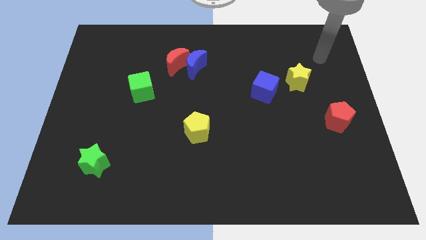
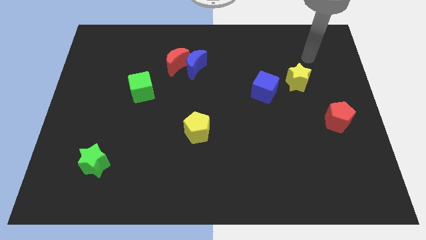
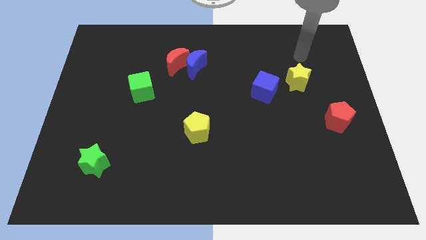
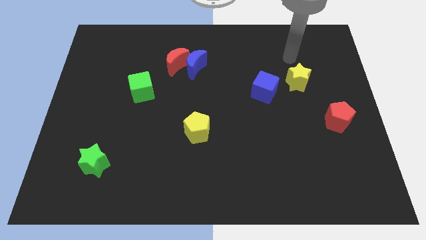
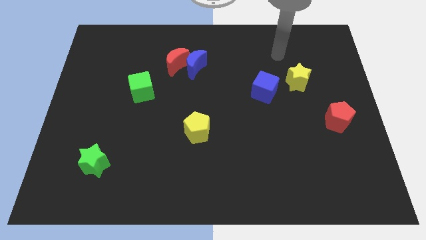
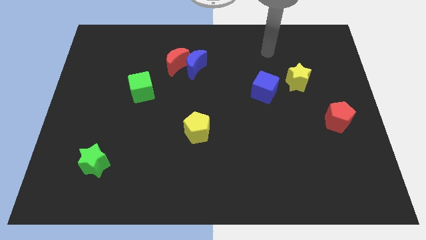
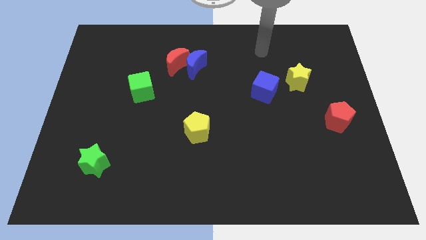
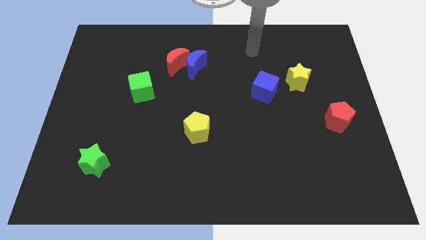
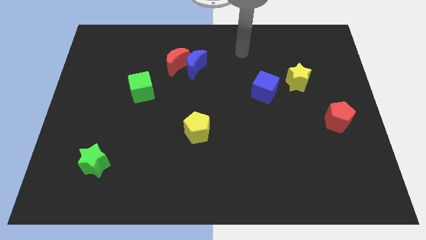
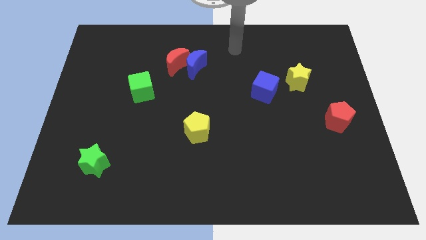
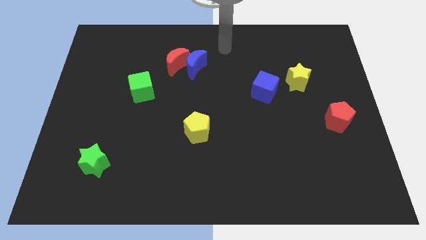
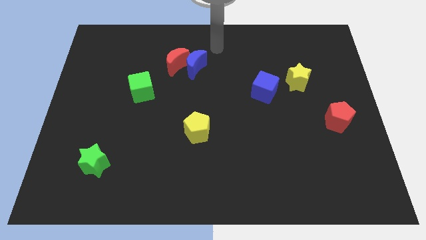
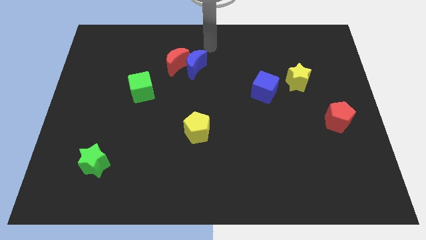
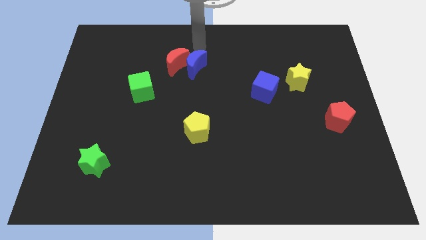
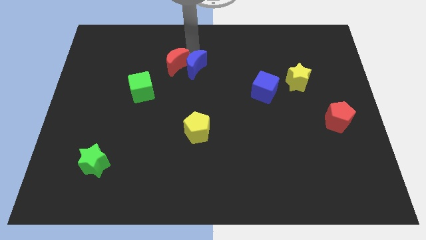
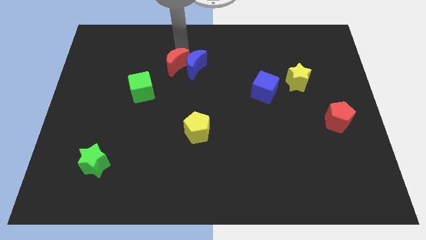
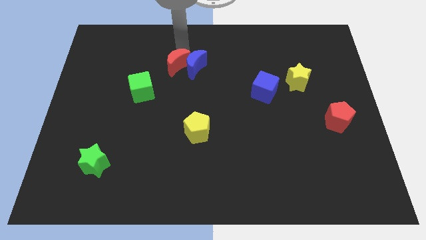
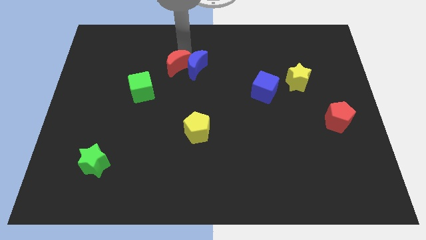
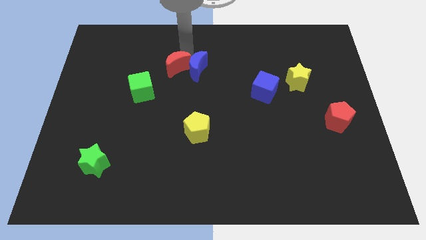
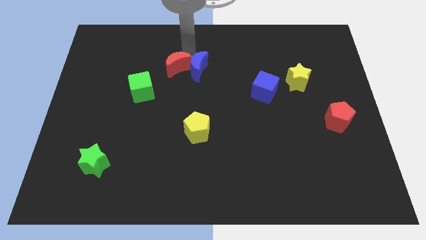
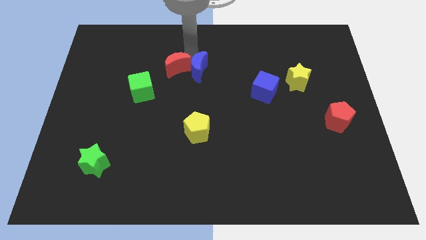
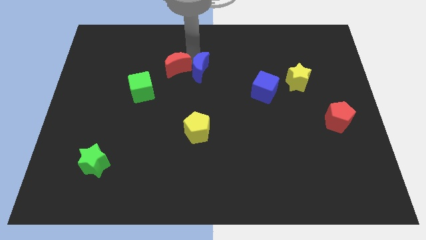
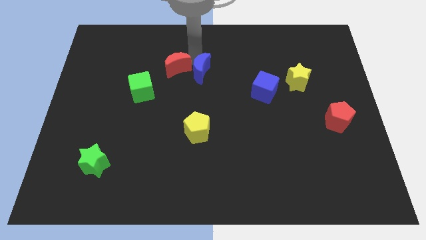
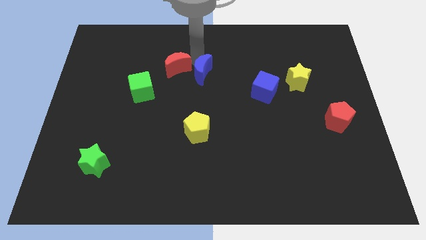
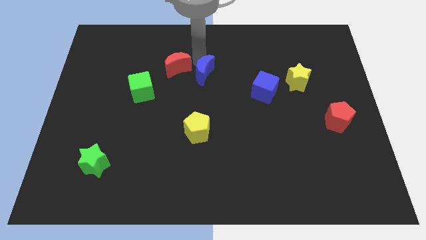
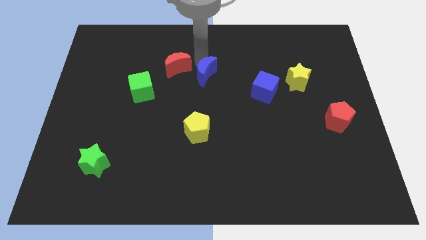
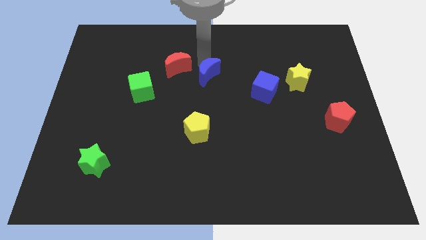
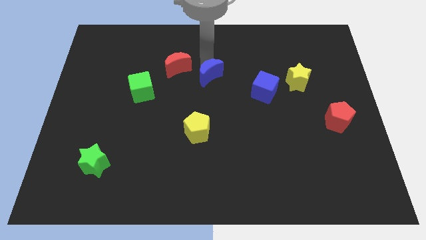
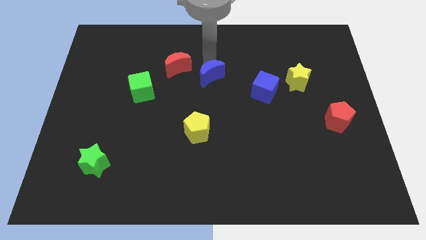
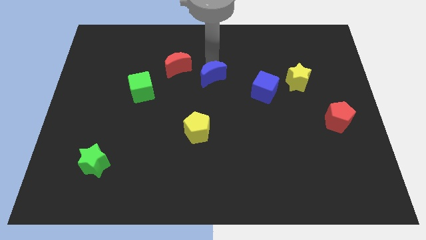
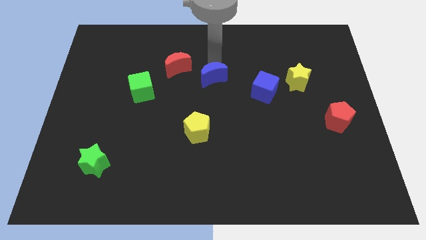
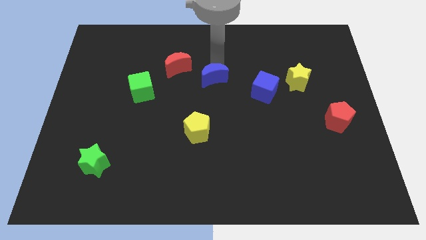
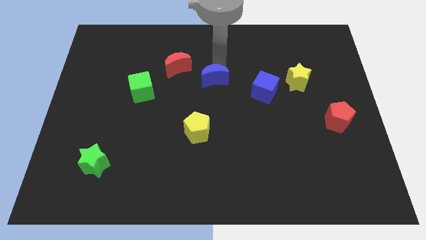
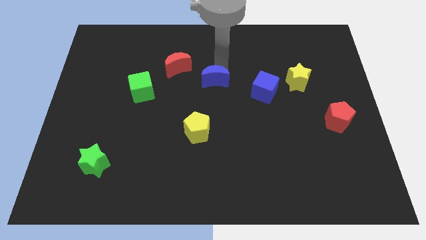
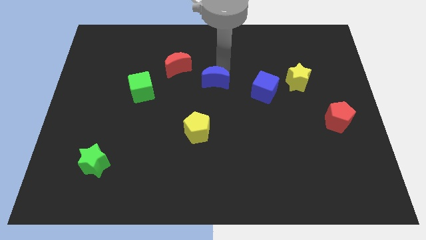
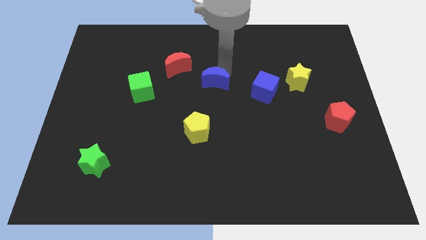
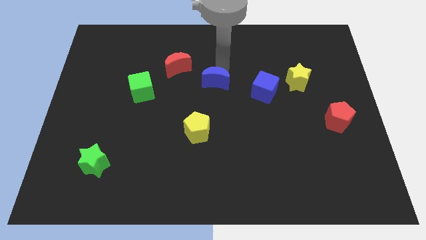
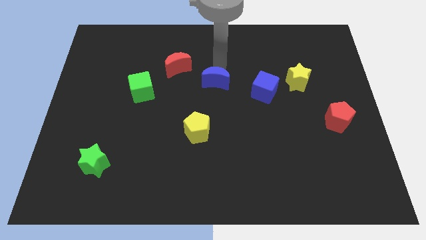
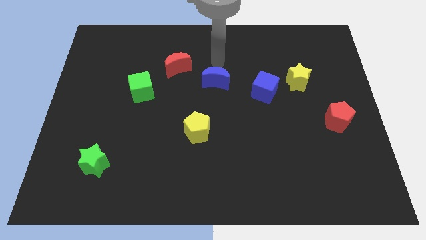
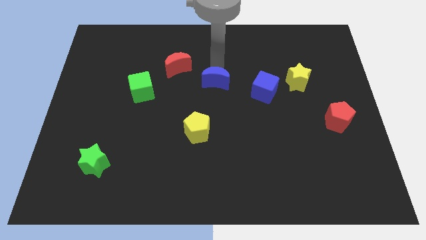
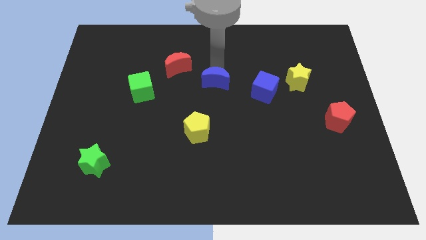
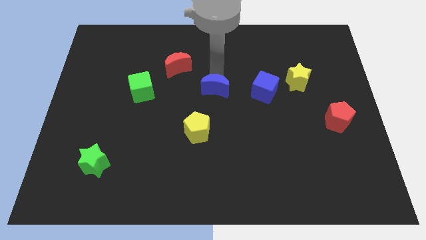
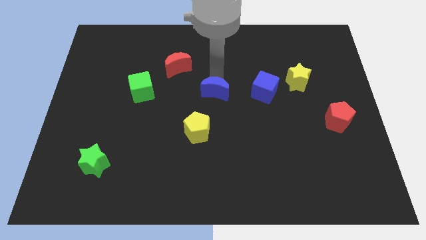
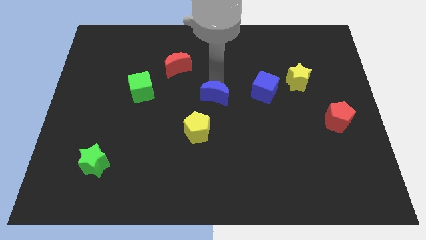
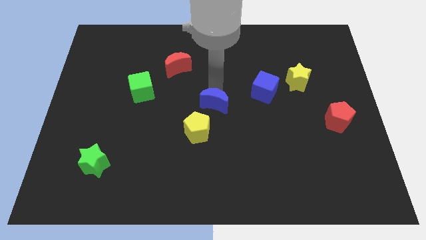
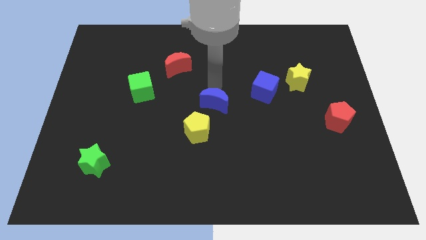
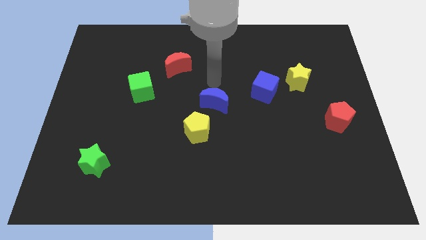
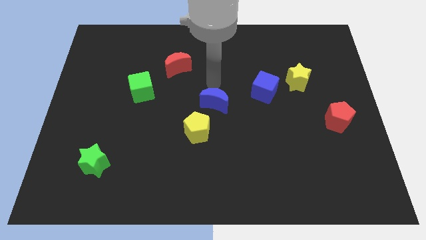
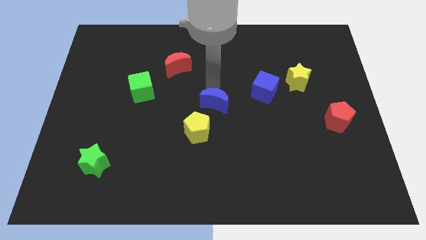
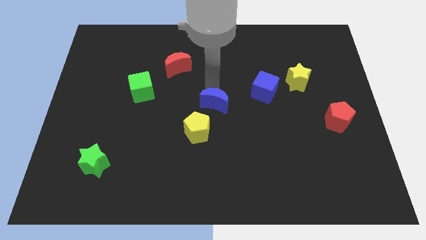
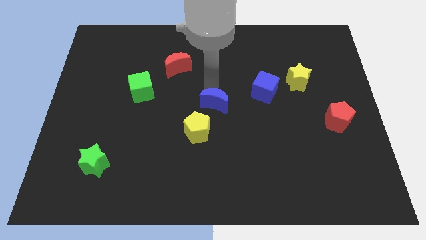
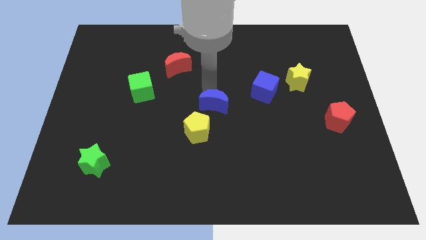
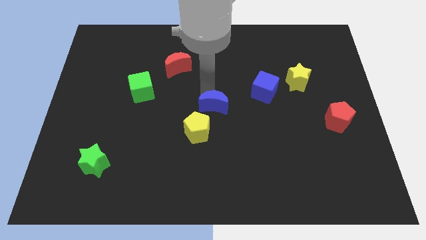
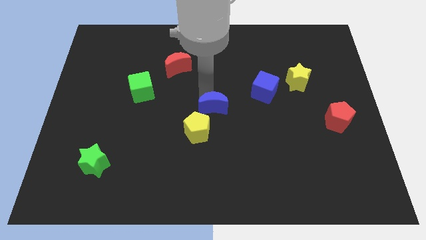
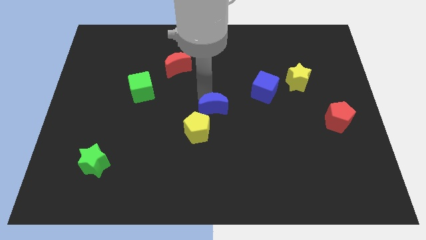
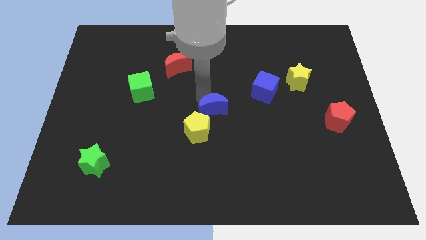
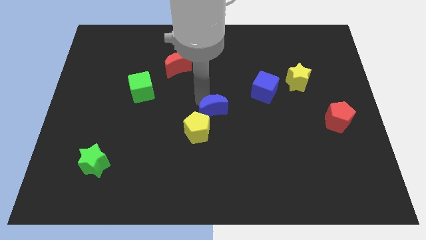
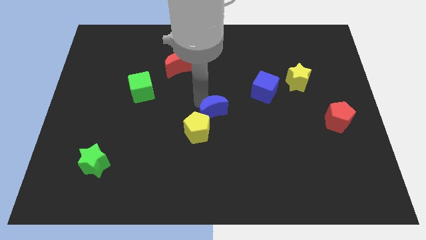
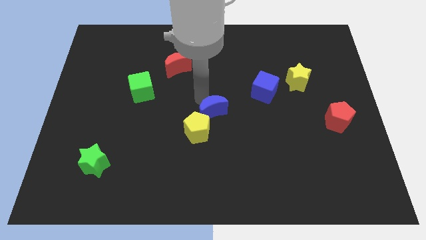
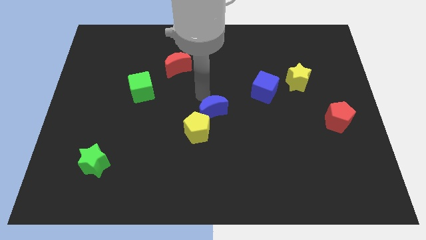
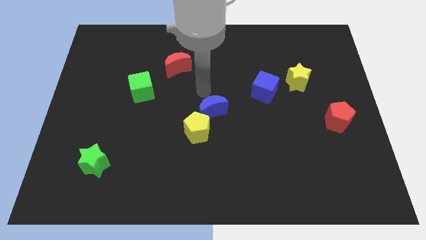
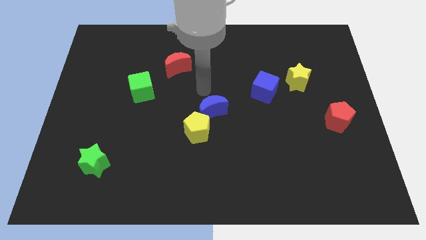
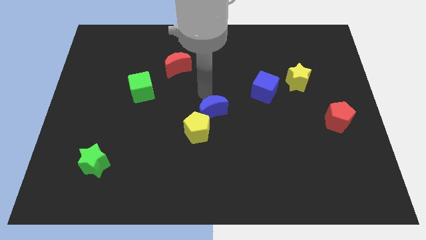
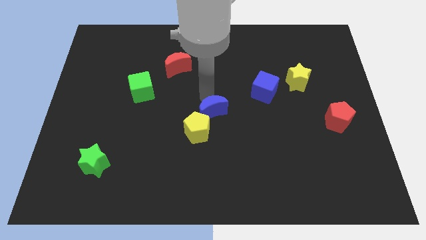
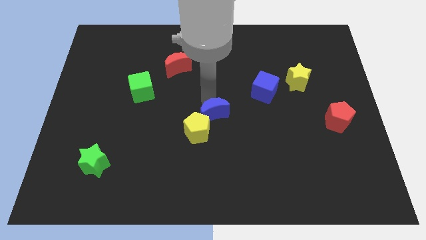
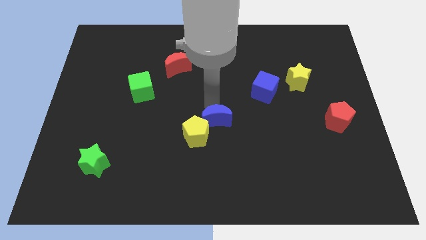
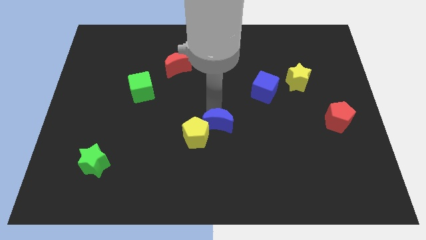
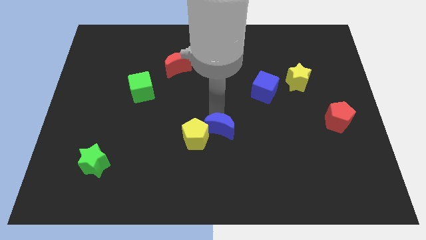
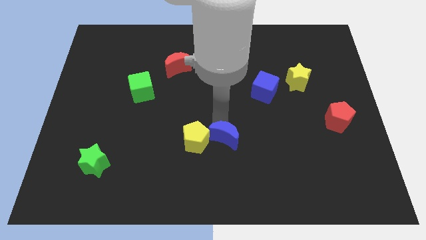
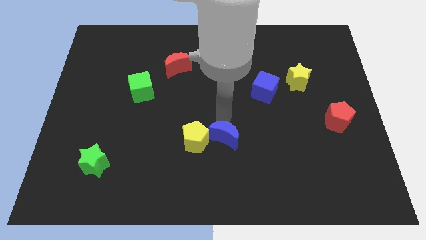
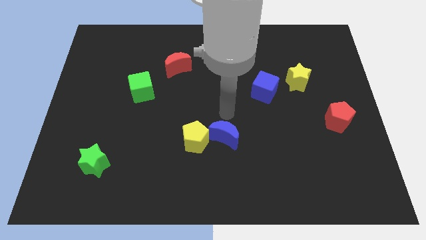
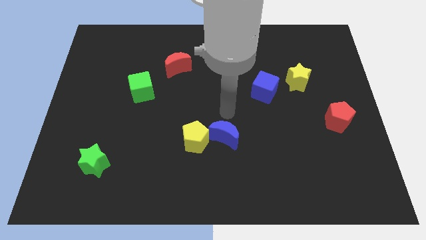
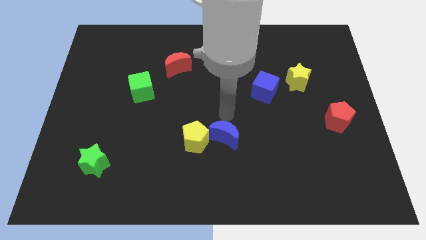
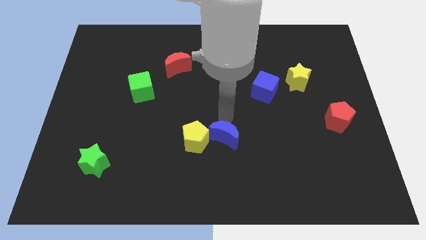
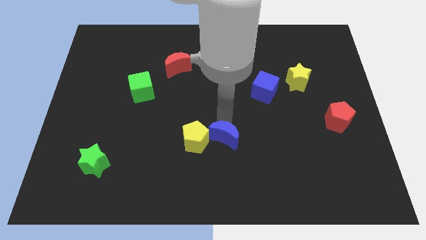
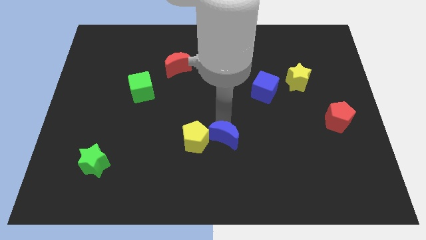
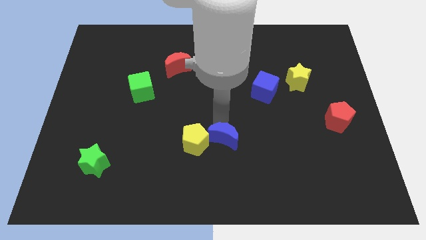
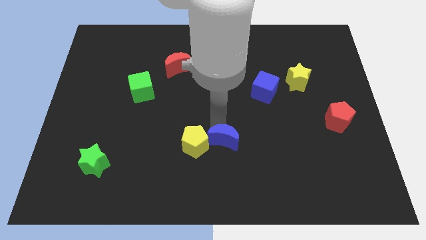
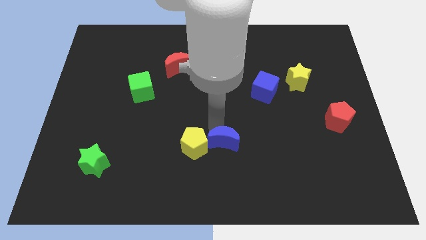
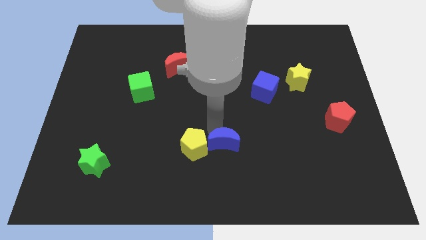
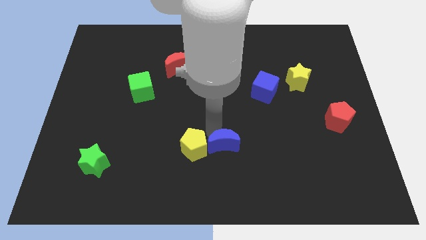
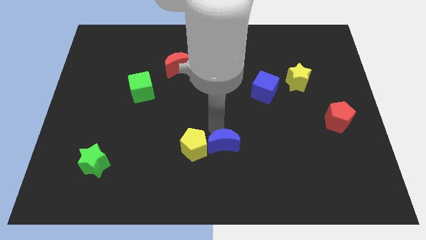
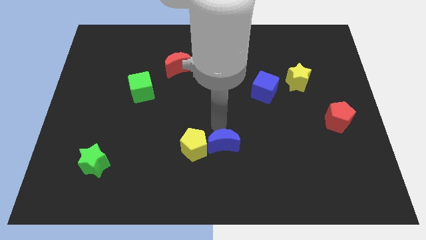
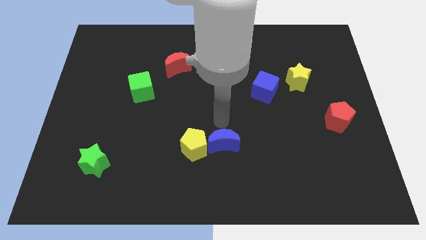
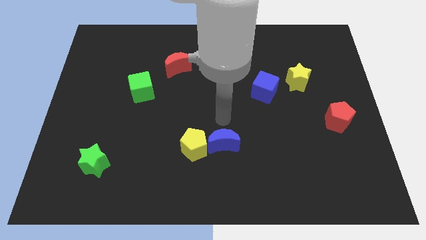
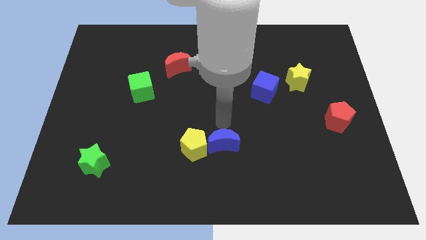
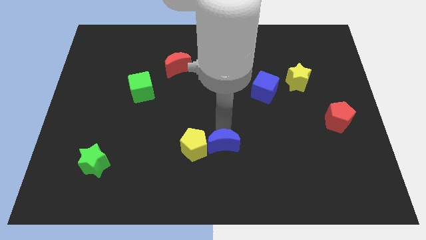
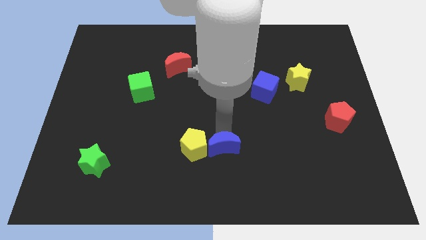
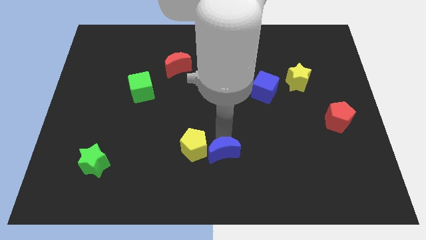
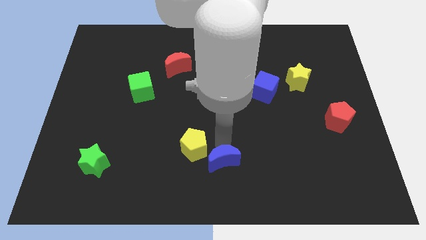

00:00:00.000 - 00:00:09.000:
push the blue moon to the bottom side
